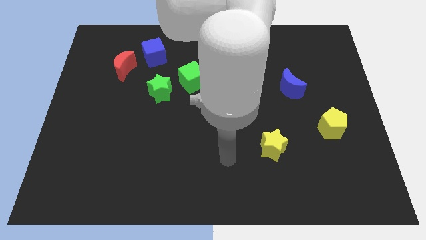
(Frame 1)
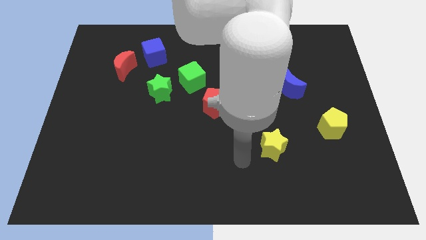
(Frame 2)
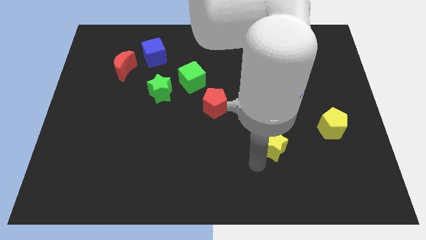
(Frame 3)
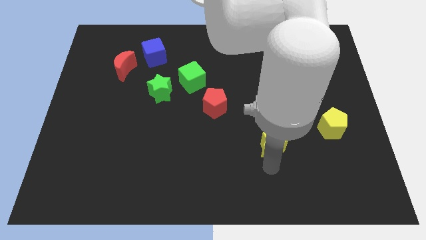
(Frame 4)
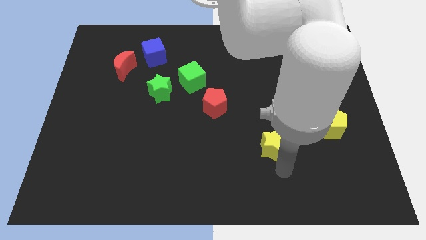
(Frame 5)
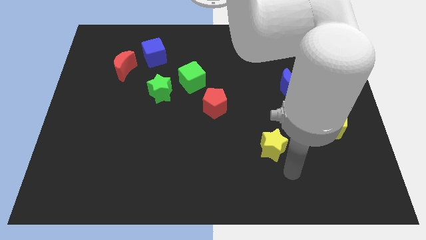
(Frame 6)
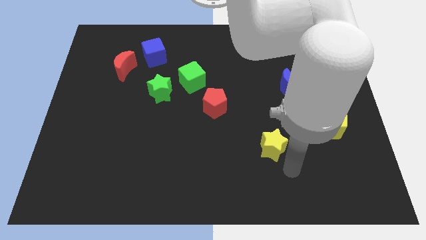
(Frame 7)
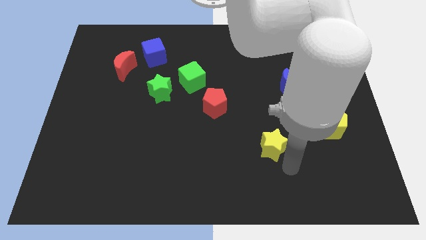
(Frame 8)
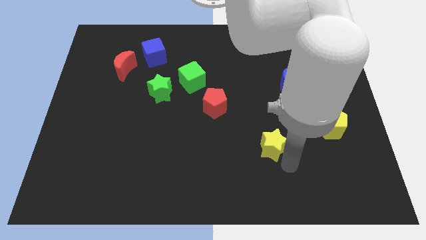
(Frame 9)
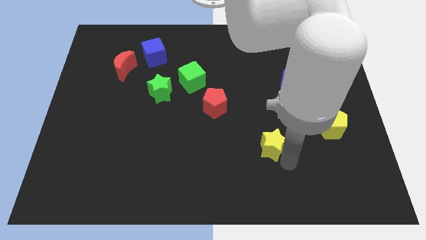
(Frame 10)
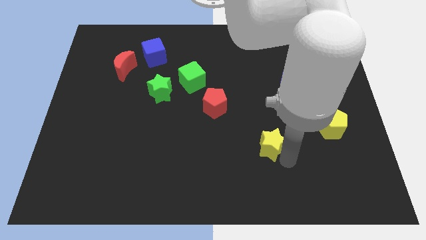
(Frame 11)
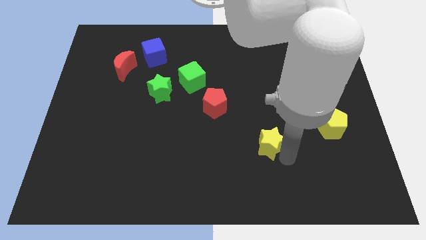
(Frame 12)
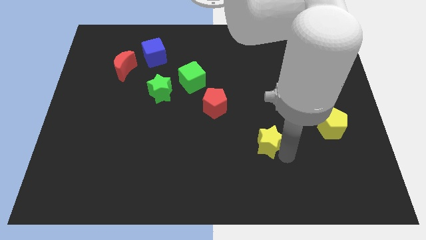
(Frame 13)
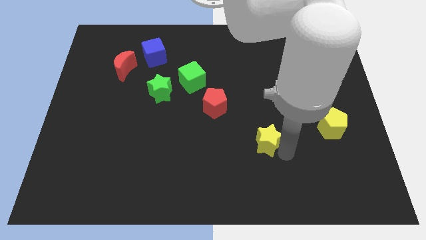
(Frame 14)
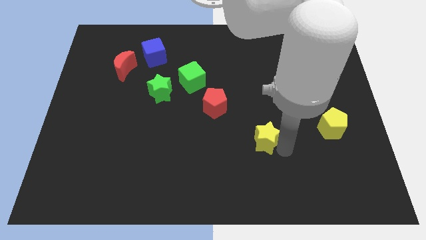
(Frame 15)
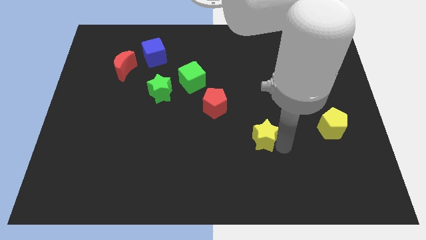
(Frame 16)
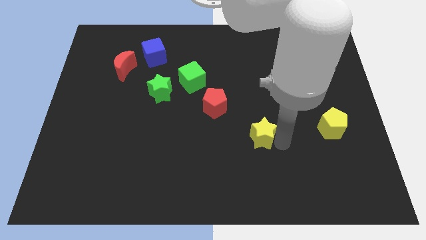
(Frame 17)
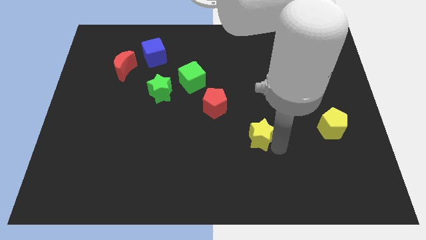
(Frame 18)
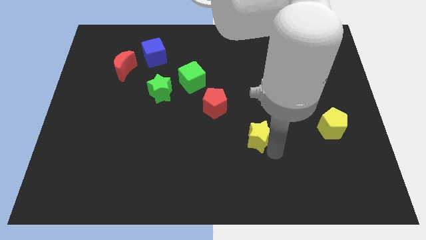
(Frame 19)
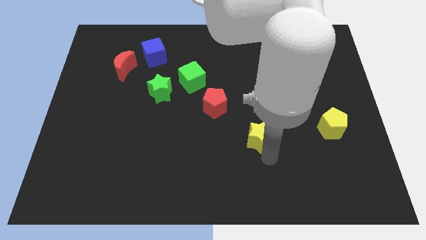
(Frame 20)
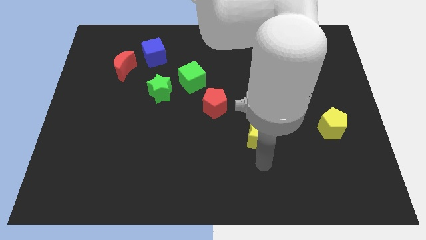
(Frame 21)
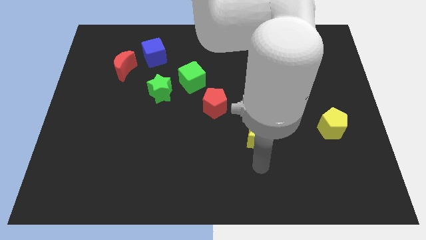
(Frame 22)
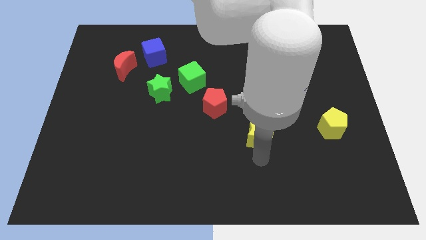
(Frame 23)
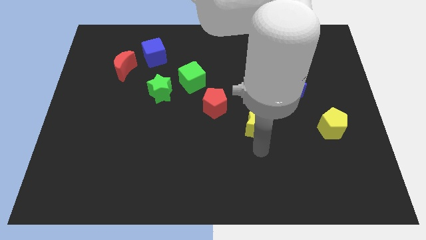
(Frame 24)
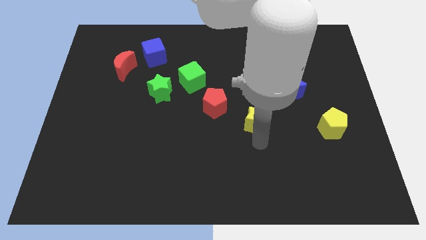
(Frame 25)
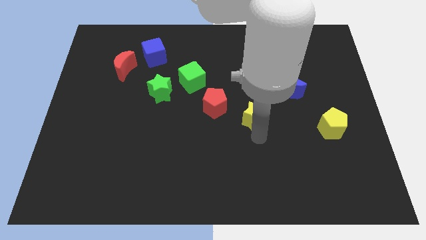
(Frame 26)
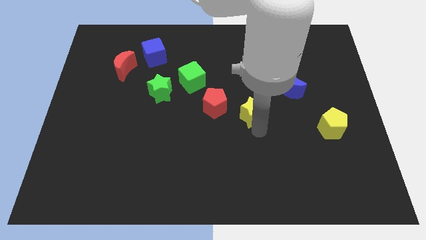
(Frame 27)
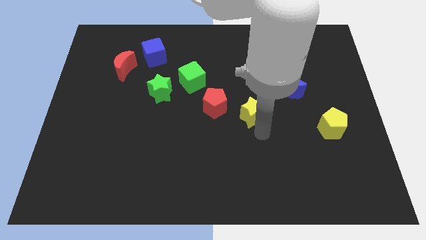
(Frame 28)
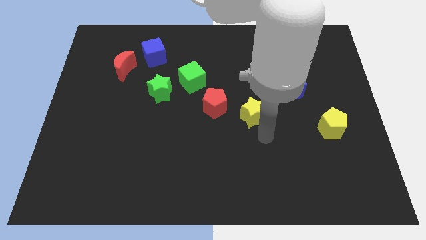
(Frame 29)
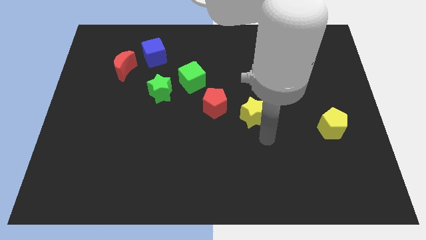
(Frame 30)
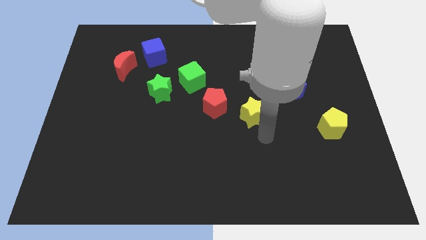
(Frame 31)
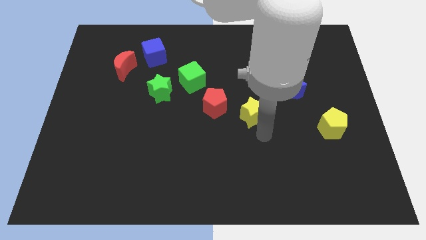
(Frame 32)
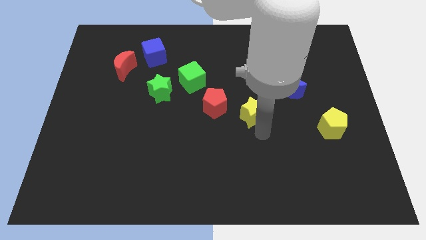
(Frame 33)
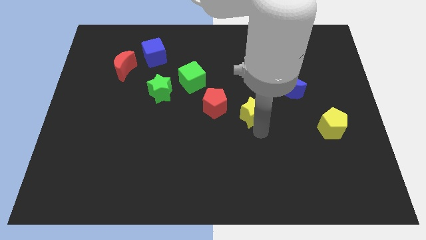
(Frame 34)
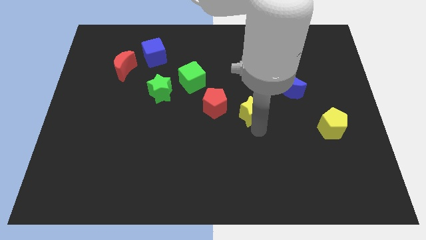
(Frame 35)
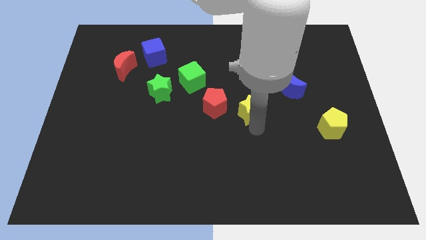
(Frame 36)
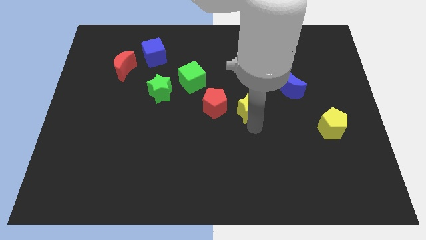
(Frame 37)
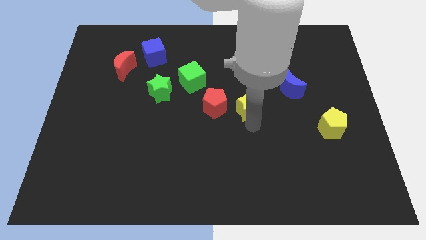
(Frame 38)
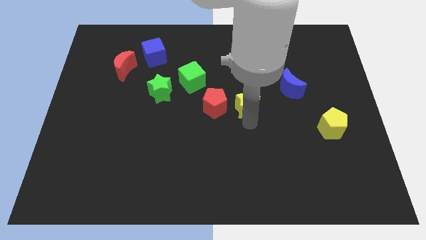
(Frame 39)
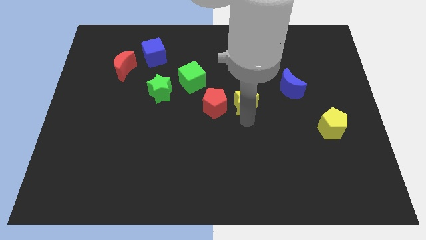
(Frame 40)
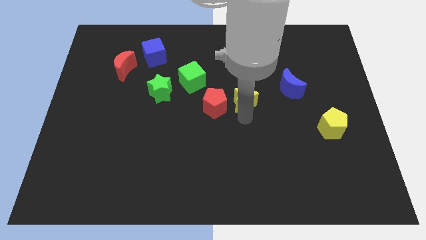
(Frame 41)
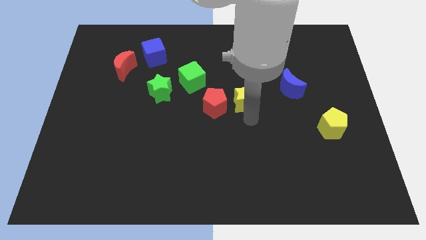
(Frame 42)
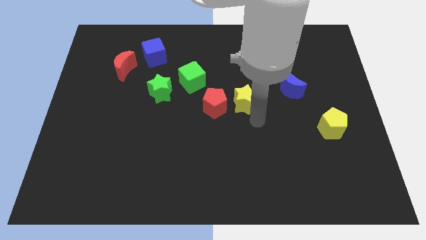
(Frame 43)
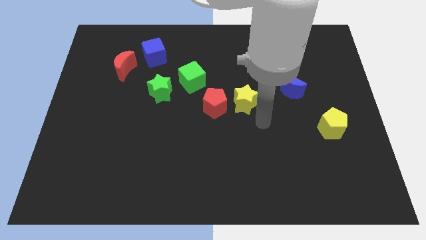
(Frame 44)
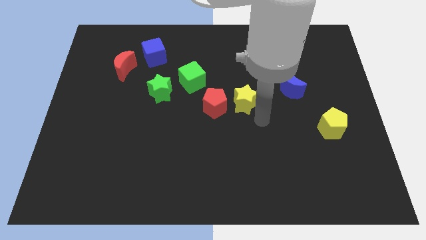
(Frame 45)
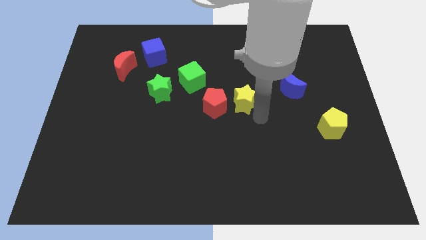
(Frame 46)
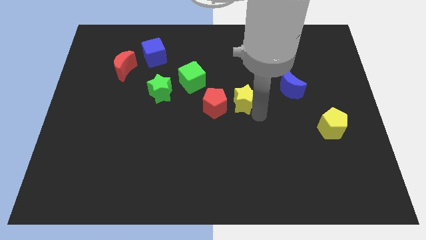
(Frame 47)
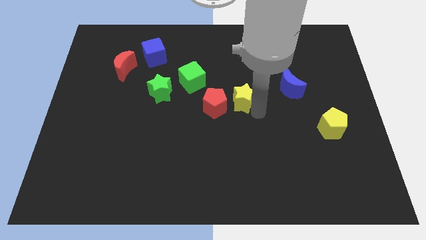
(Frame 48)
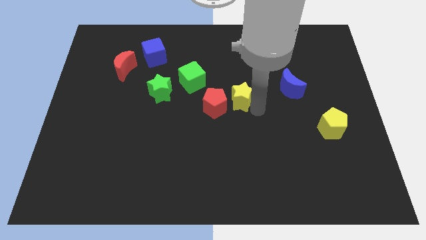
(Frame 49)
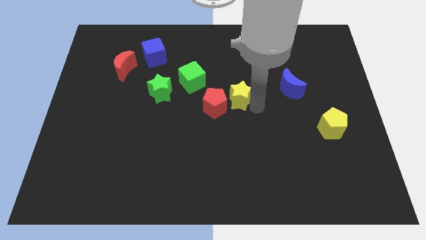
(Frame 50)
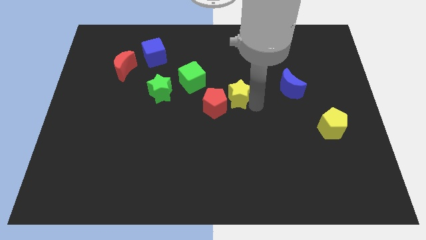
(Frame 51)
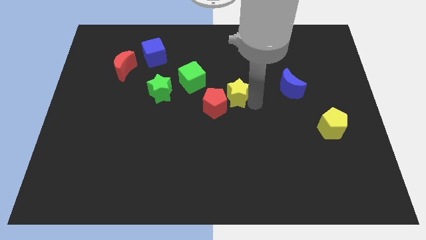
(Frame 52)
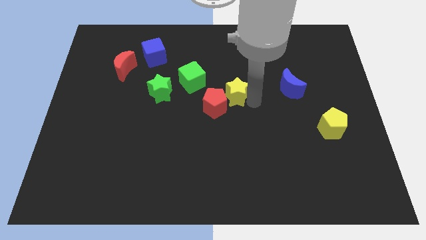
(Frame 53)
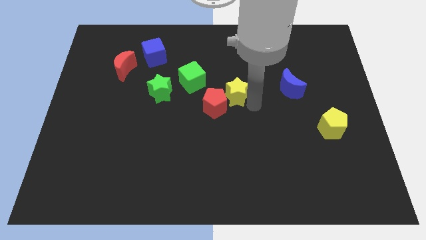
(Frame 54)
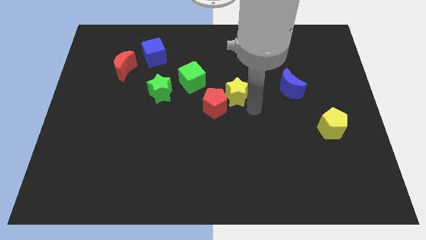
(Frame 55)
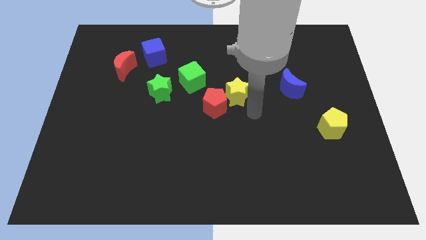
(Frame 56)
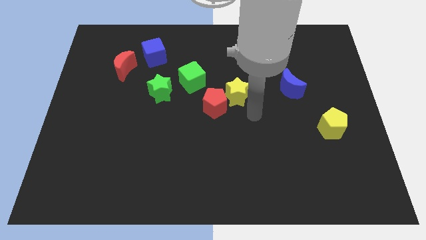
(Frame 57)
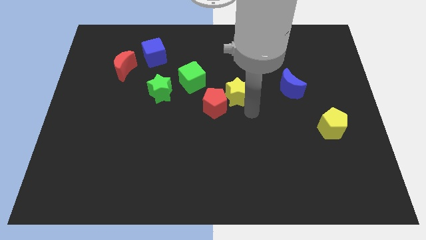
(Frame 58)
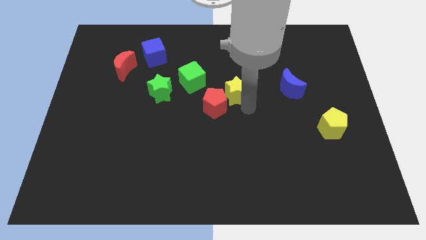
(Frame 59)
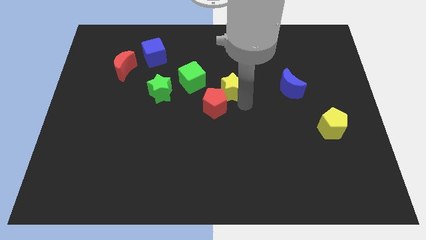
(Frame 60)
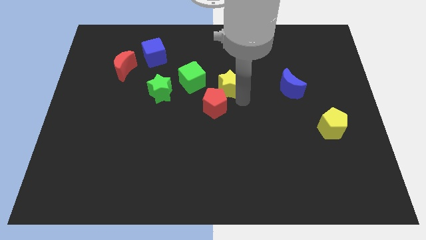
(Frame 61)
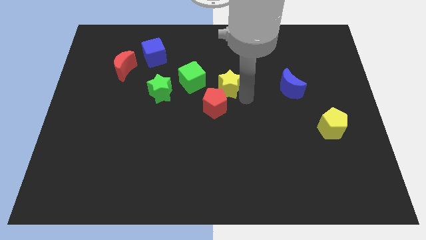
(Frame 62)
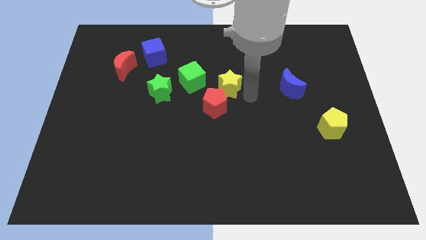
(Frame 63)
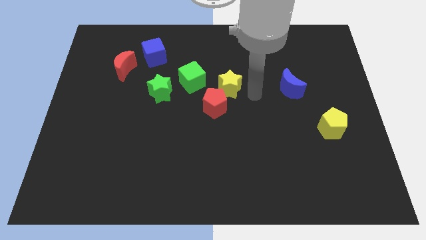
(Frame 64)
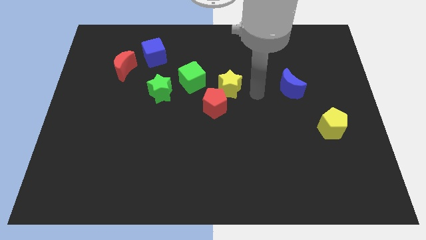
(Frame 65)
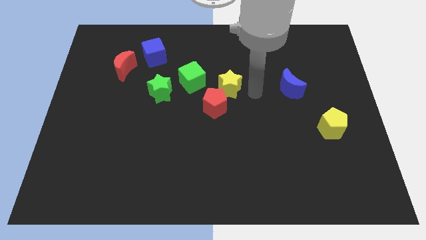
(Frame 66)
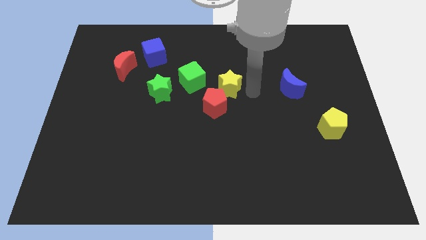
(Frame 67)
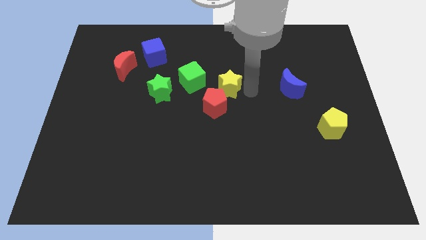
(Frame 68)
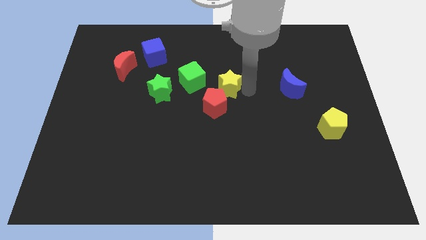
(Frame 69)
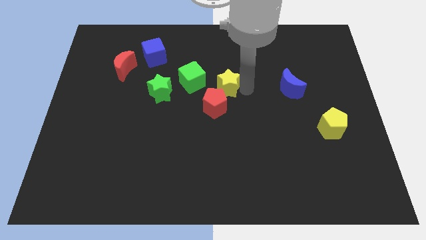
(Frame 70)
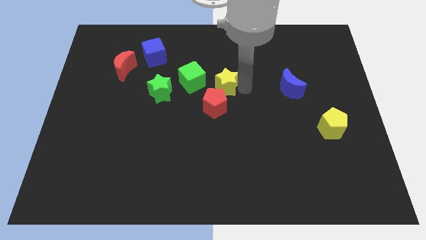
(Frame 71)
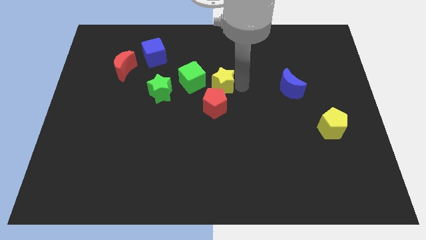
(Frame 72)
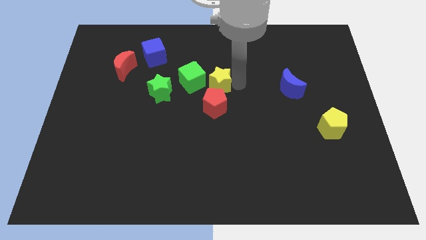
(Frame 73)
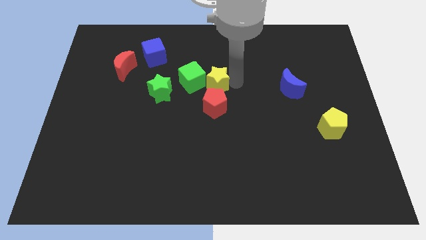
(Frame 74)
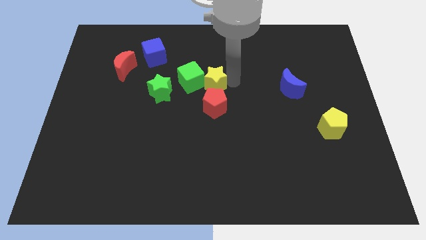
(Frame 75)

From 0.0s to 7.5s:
push the yellow star towards the green cube

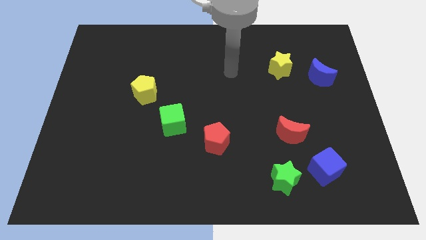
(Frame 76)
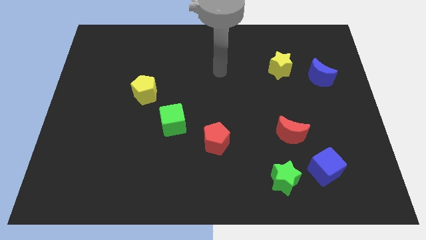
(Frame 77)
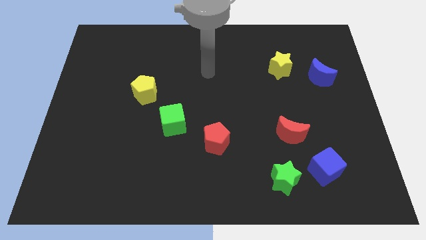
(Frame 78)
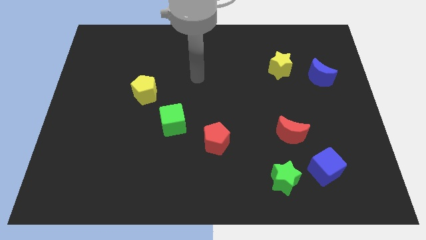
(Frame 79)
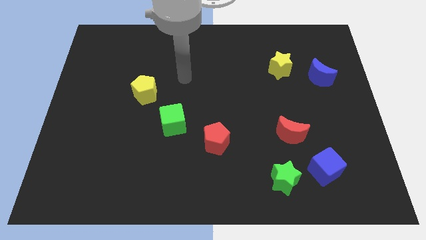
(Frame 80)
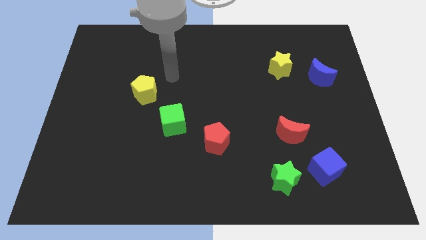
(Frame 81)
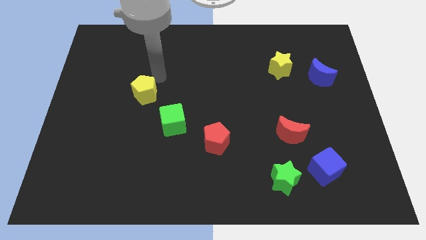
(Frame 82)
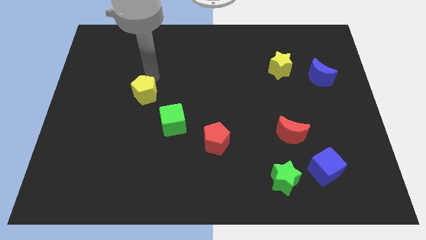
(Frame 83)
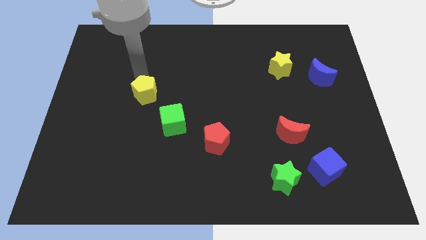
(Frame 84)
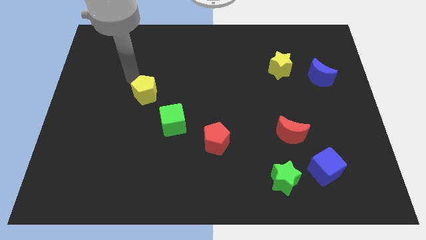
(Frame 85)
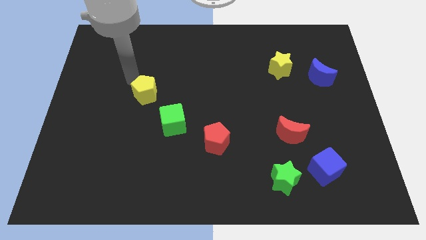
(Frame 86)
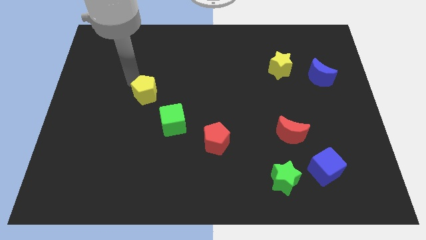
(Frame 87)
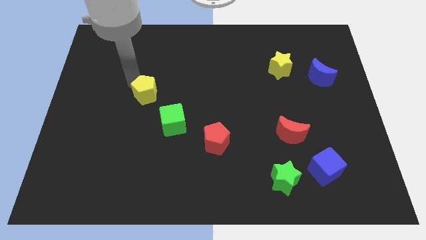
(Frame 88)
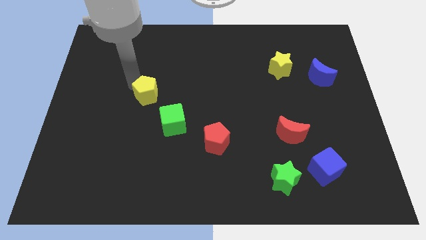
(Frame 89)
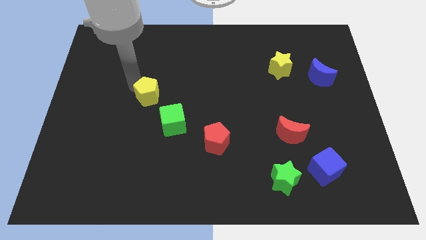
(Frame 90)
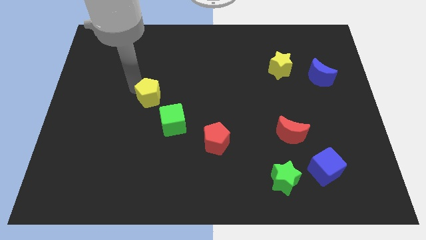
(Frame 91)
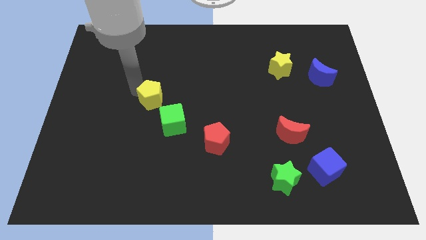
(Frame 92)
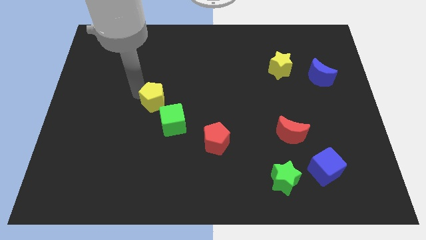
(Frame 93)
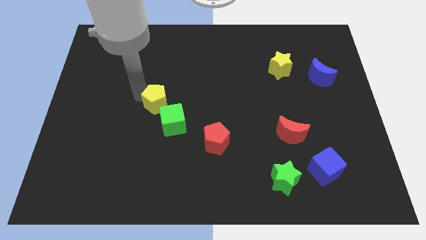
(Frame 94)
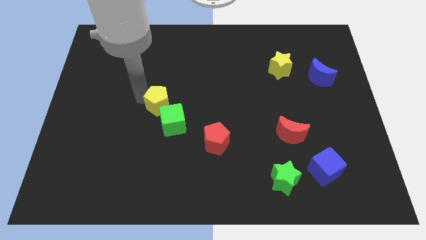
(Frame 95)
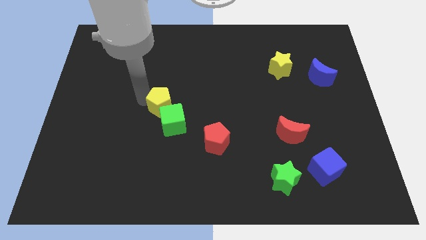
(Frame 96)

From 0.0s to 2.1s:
move the yellow pentagon to the green cube
